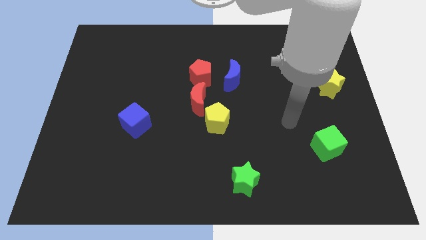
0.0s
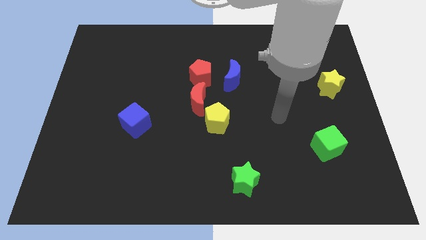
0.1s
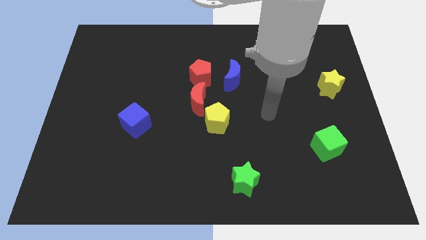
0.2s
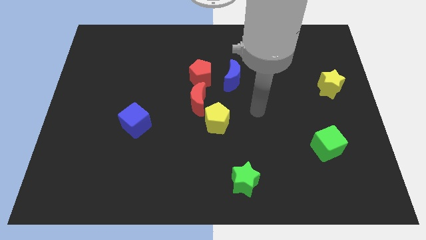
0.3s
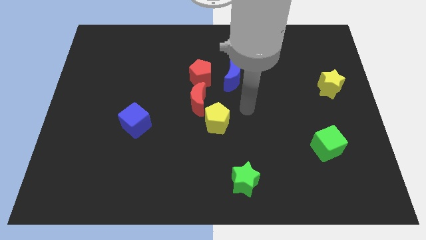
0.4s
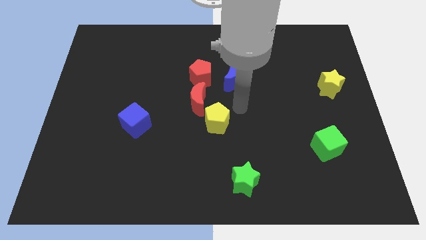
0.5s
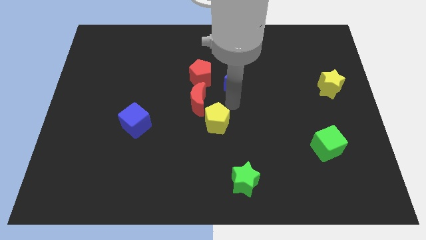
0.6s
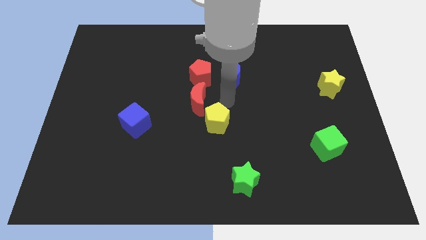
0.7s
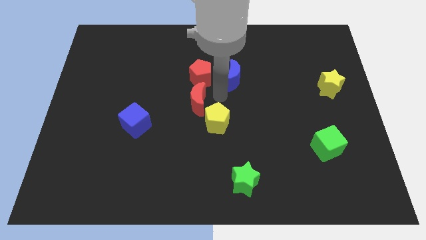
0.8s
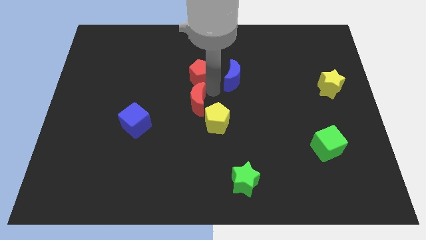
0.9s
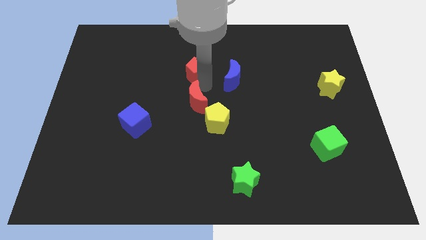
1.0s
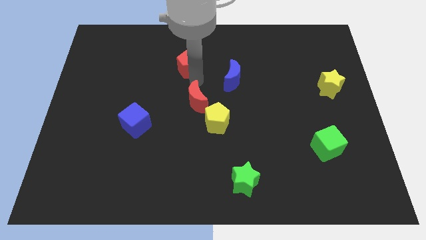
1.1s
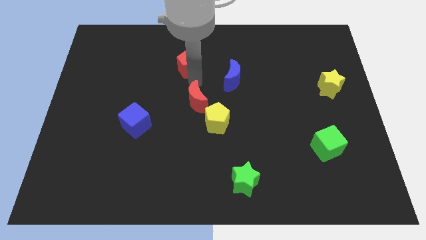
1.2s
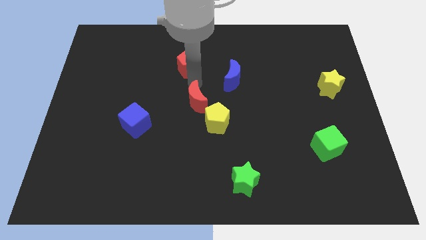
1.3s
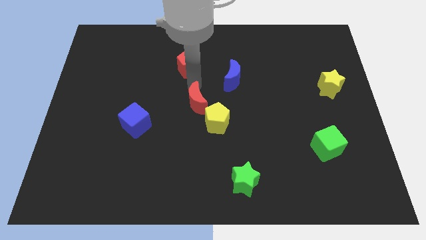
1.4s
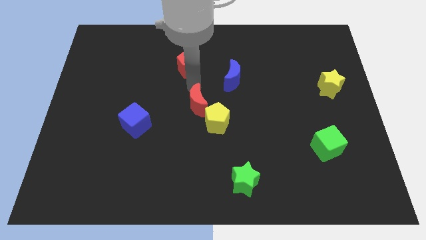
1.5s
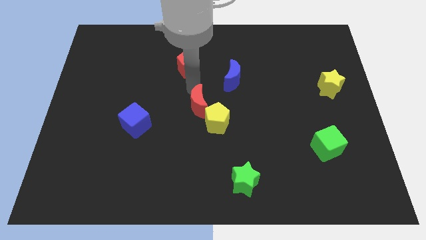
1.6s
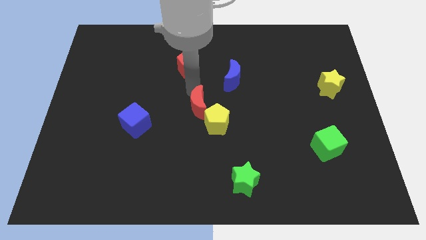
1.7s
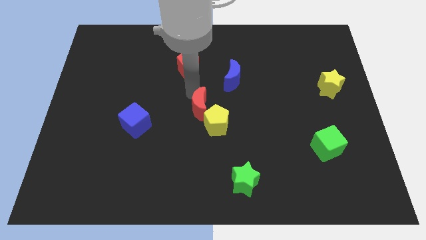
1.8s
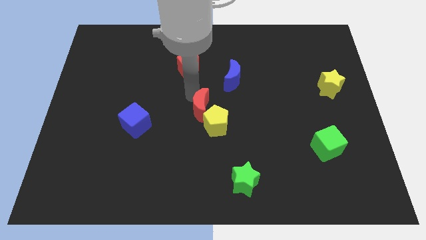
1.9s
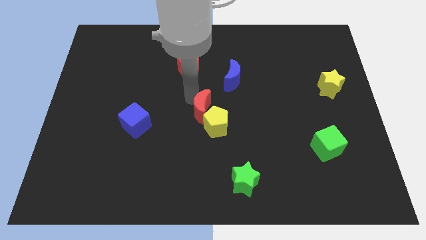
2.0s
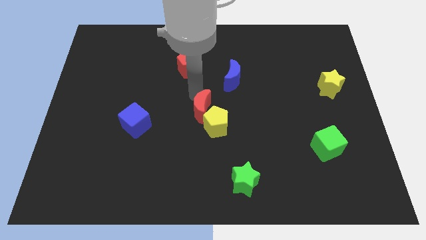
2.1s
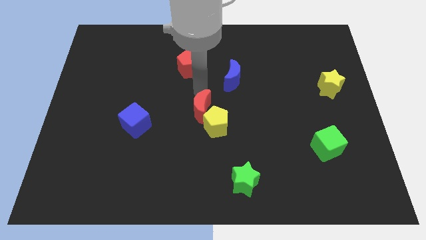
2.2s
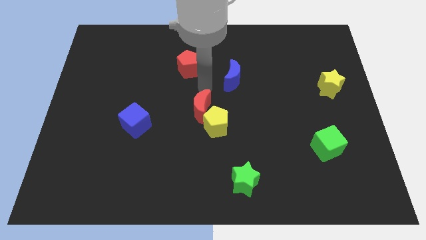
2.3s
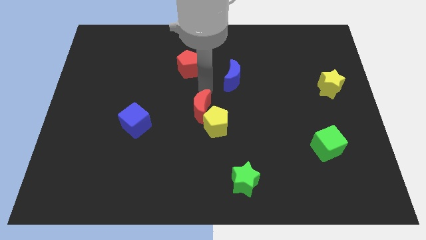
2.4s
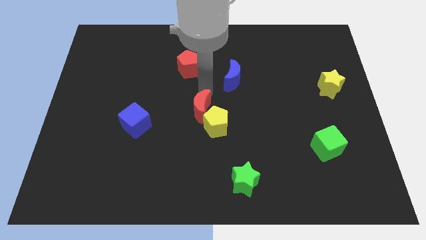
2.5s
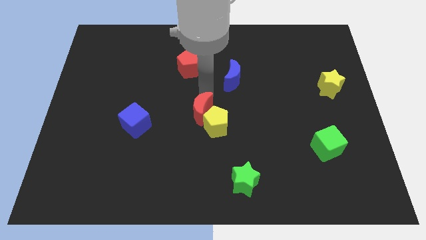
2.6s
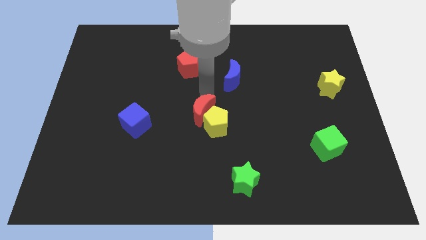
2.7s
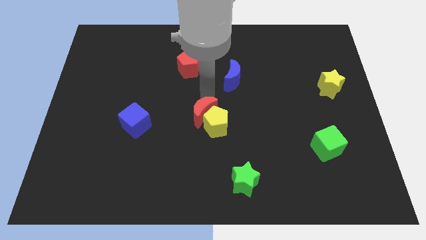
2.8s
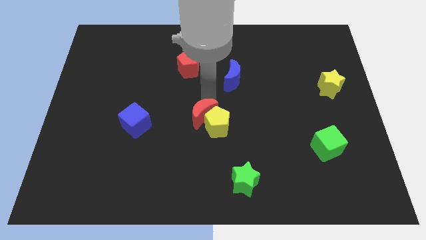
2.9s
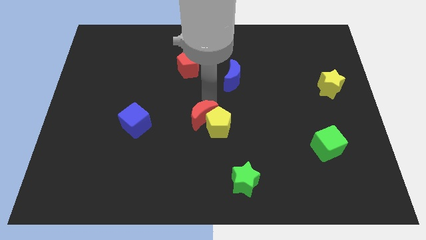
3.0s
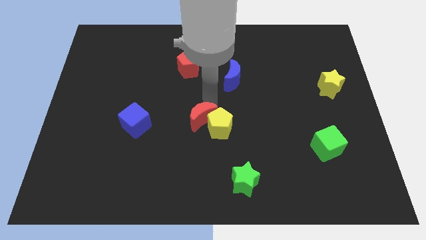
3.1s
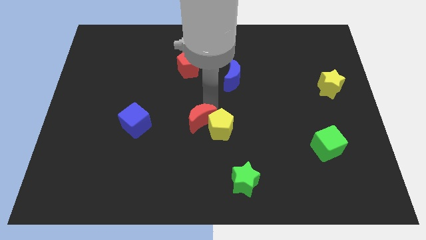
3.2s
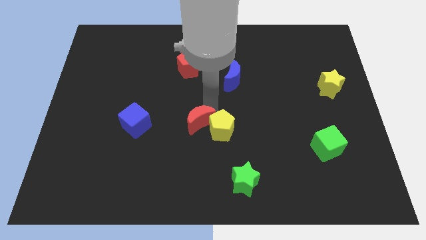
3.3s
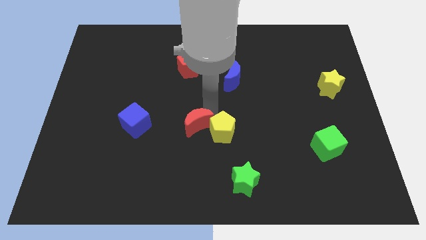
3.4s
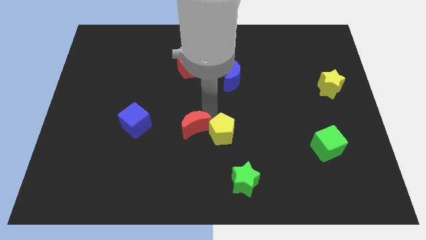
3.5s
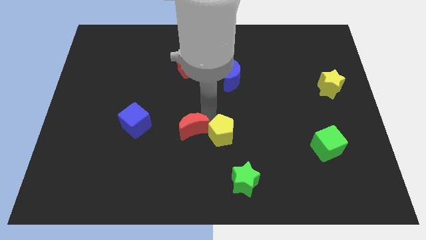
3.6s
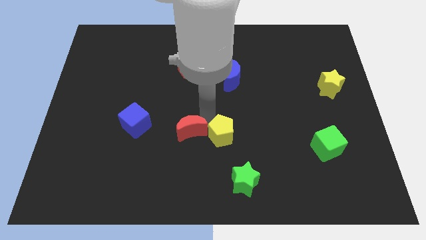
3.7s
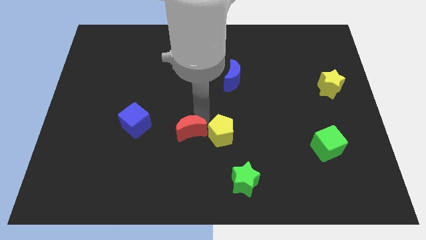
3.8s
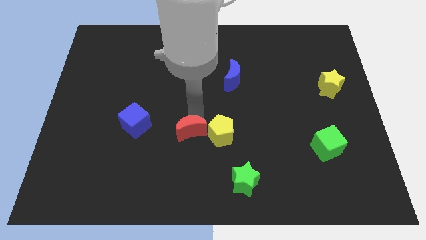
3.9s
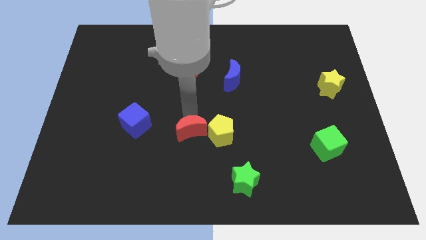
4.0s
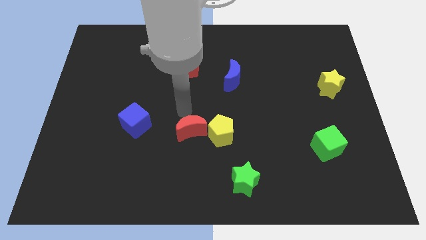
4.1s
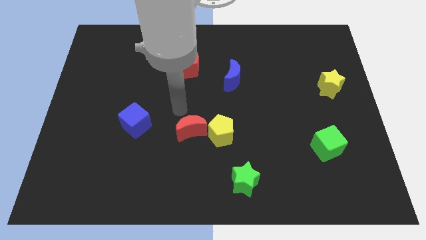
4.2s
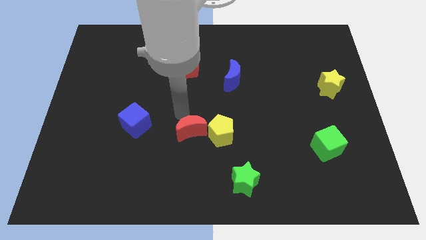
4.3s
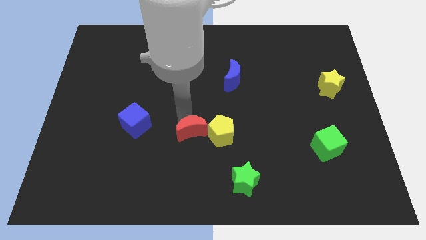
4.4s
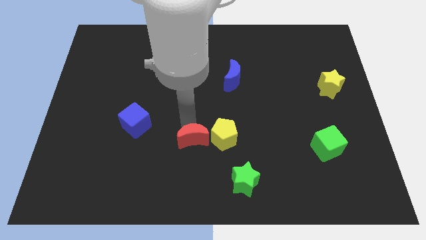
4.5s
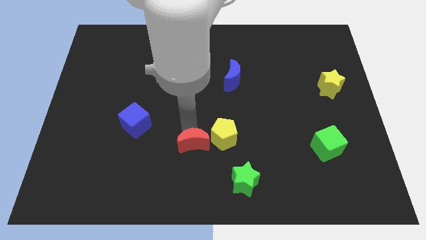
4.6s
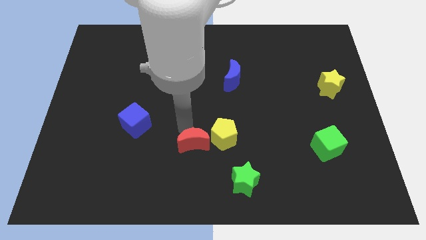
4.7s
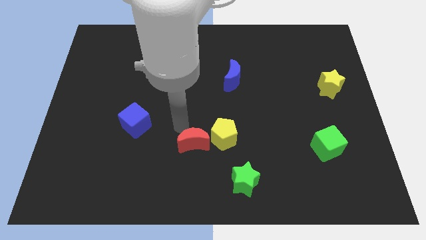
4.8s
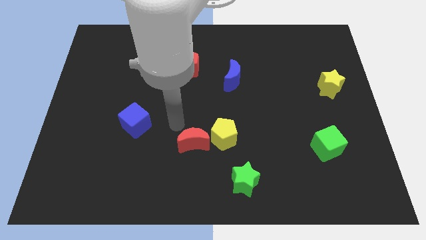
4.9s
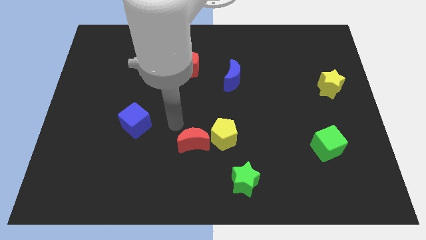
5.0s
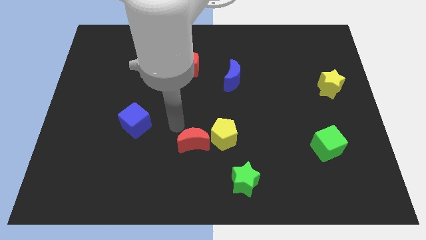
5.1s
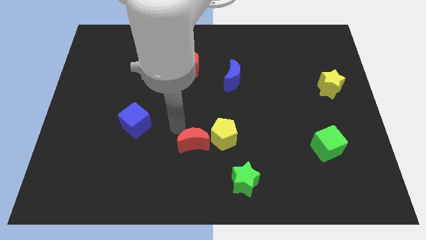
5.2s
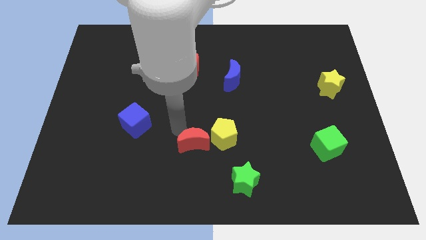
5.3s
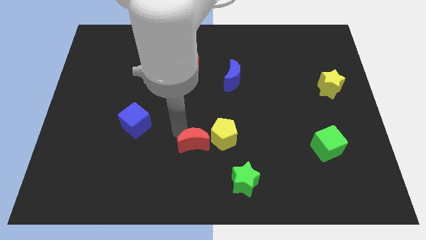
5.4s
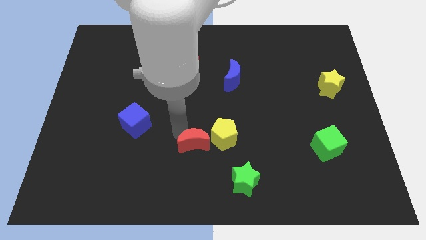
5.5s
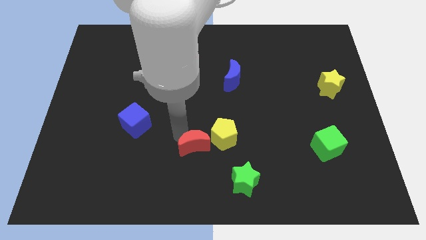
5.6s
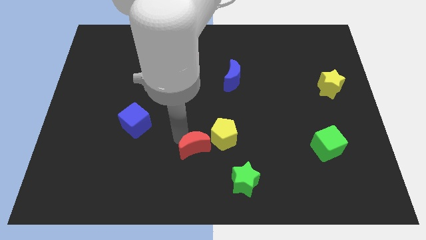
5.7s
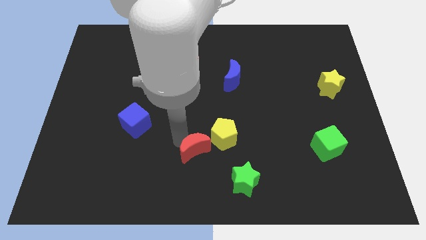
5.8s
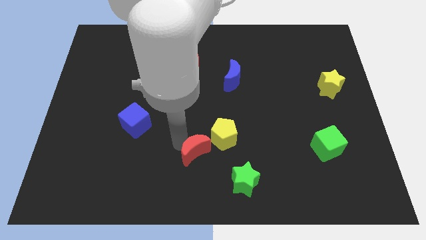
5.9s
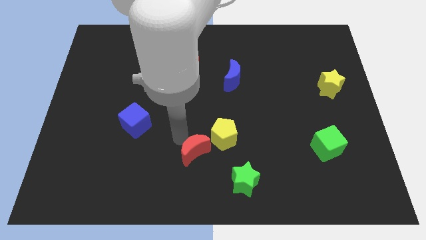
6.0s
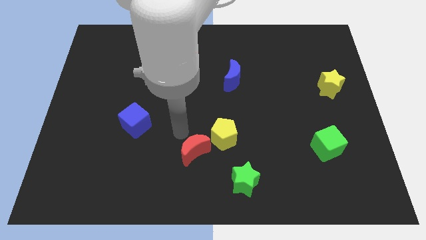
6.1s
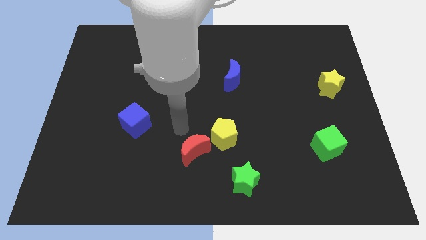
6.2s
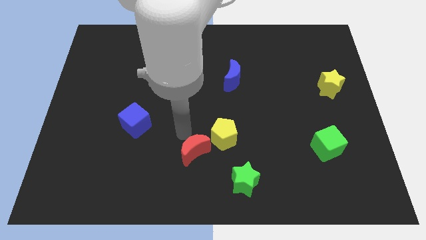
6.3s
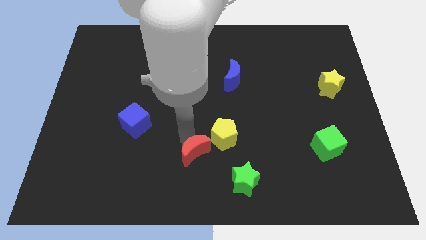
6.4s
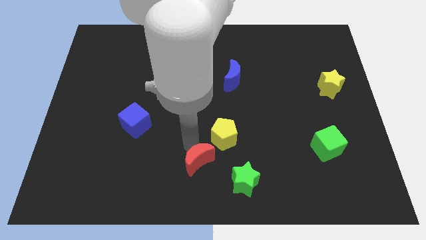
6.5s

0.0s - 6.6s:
slide the red moon to the bottom
